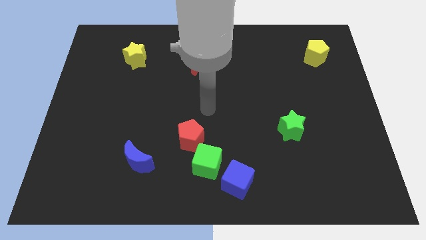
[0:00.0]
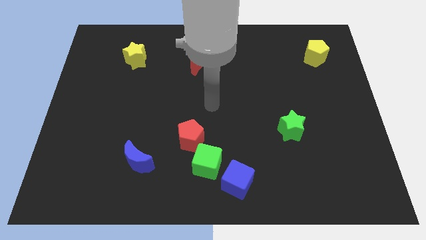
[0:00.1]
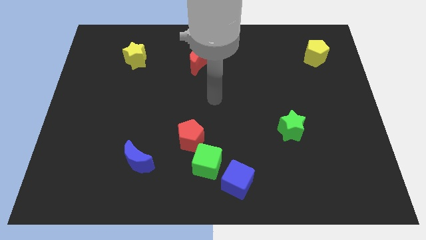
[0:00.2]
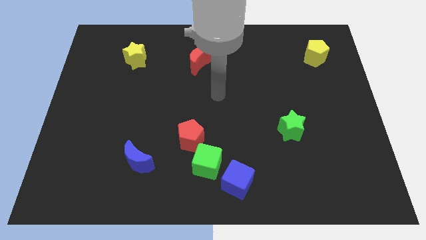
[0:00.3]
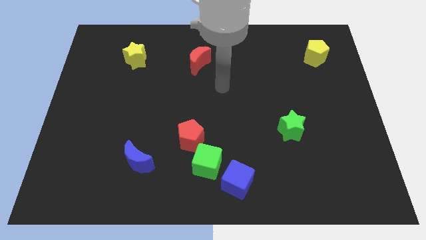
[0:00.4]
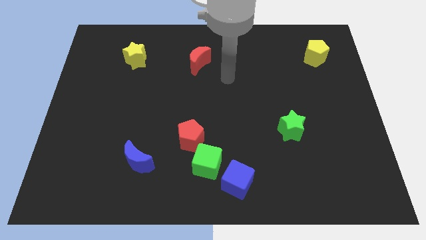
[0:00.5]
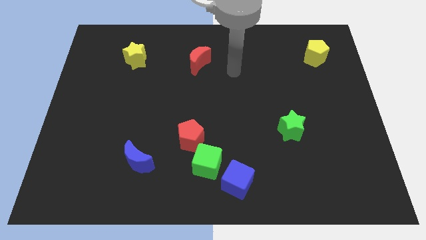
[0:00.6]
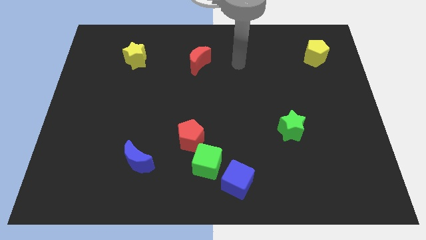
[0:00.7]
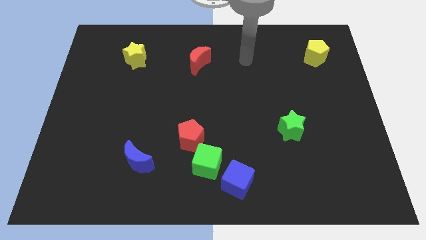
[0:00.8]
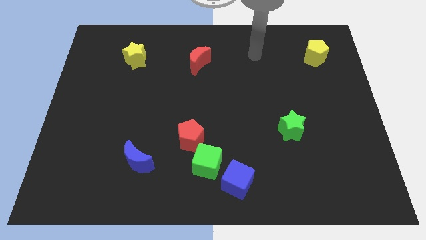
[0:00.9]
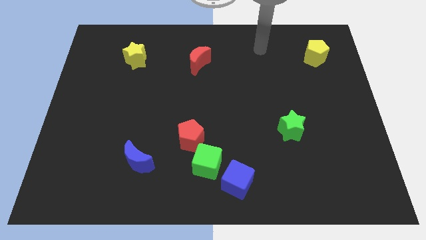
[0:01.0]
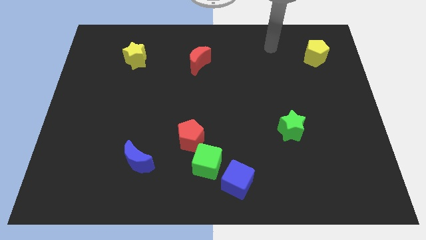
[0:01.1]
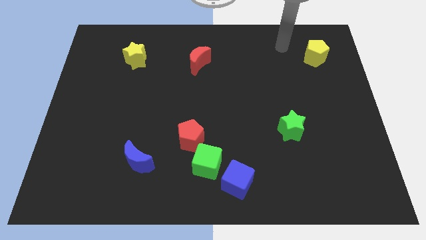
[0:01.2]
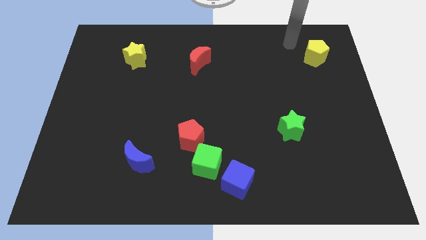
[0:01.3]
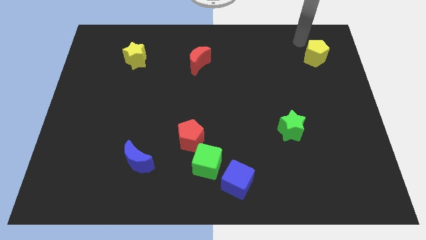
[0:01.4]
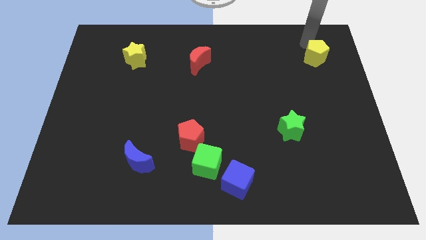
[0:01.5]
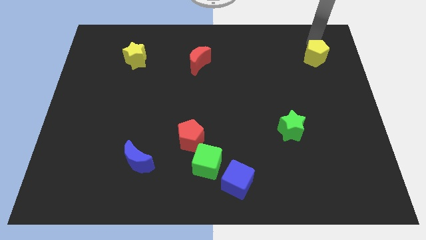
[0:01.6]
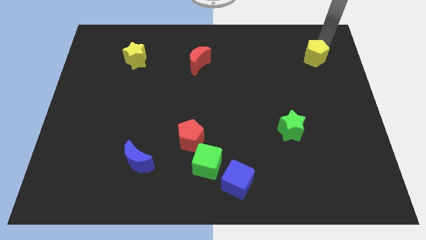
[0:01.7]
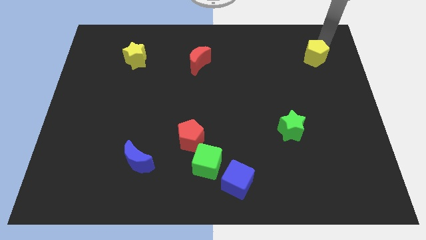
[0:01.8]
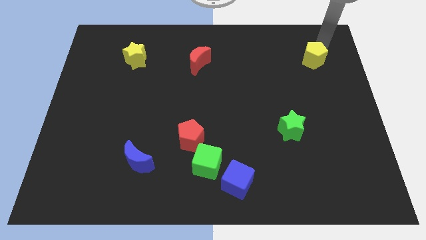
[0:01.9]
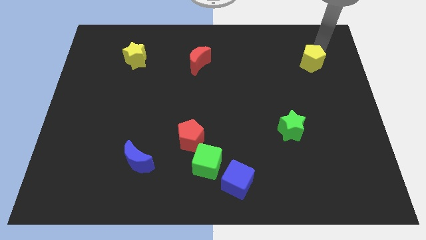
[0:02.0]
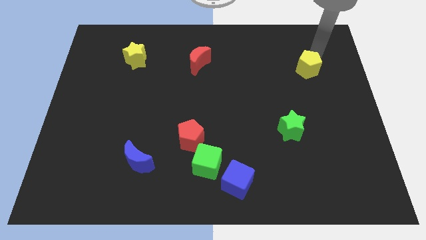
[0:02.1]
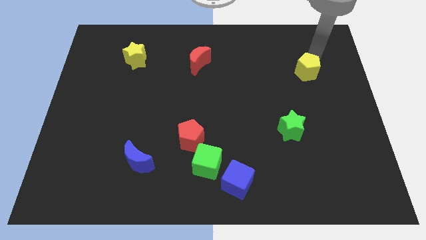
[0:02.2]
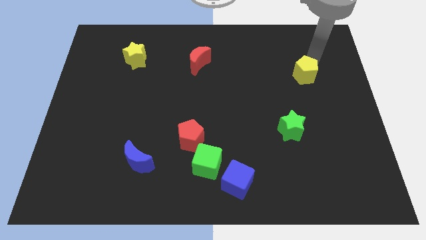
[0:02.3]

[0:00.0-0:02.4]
move the yellow pentagon a little down and then to the left

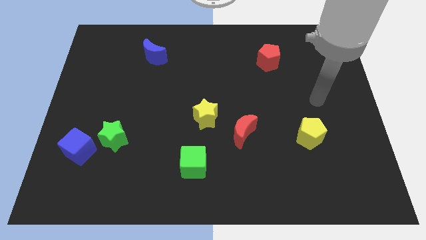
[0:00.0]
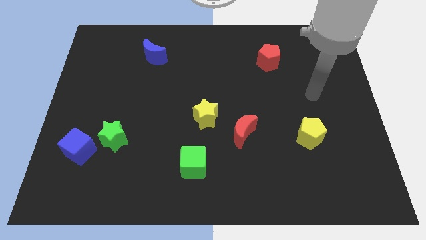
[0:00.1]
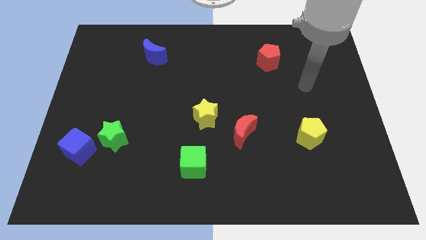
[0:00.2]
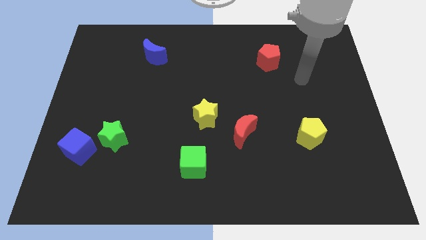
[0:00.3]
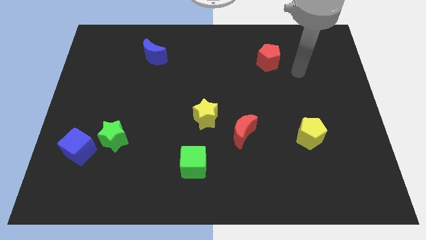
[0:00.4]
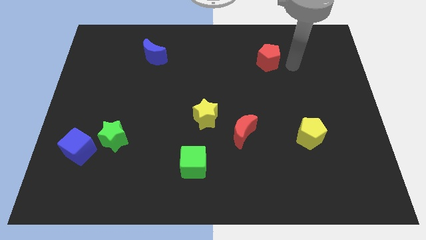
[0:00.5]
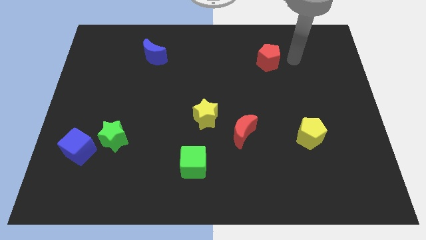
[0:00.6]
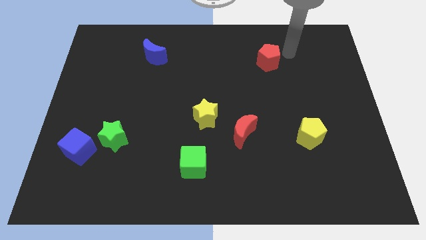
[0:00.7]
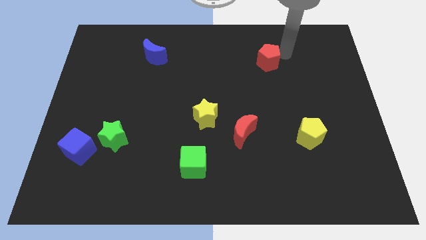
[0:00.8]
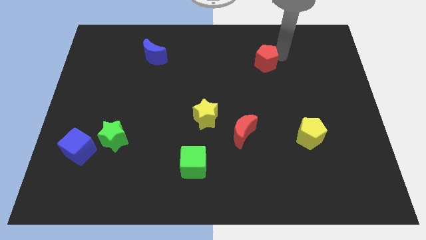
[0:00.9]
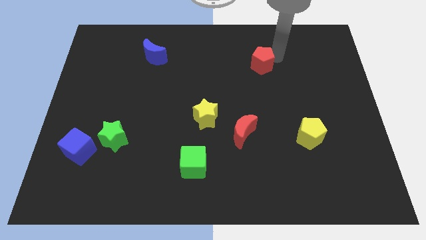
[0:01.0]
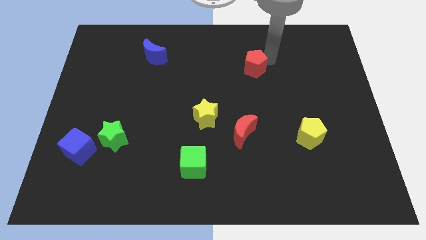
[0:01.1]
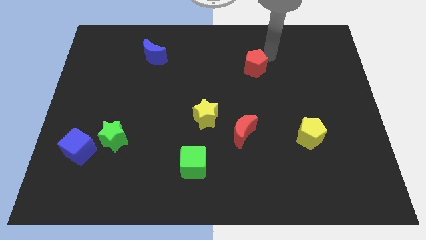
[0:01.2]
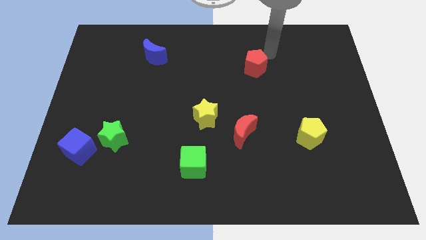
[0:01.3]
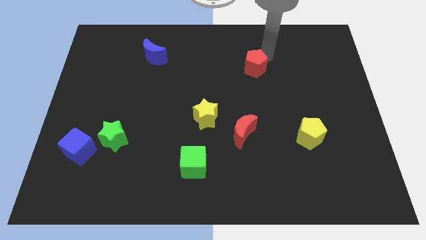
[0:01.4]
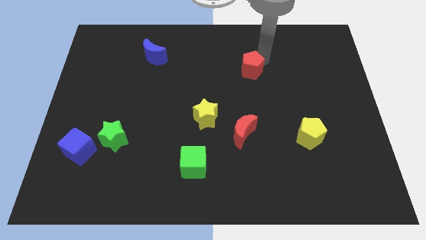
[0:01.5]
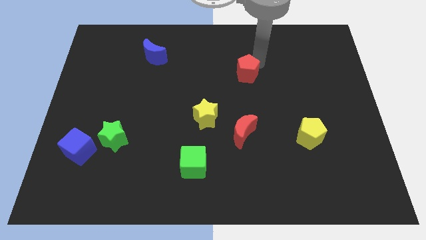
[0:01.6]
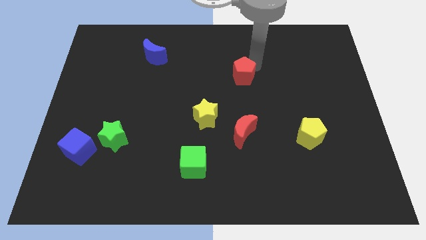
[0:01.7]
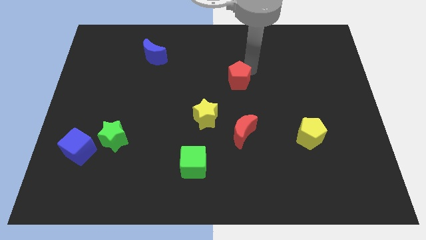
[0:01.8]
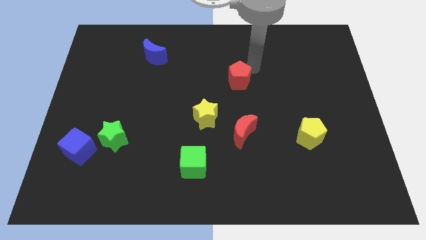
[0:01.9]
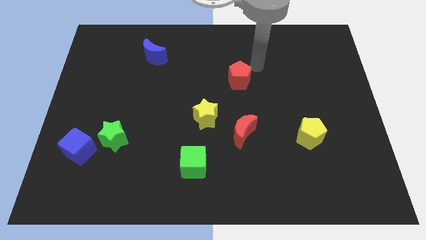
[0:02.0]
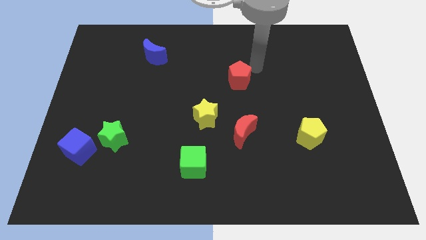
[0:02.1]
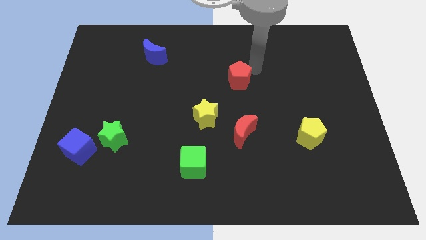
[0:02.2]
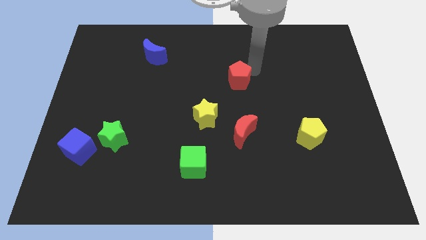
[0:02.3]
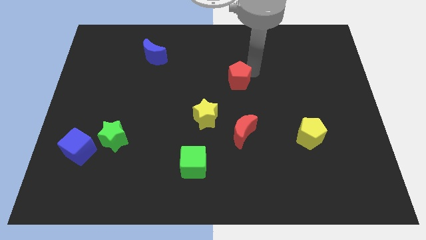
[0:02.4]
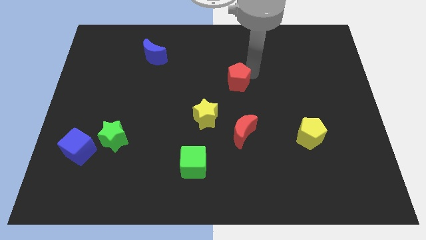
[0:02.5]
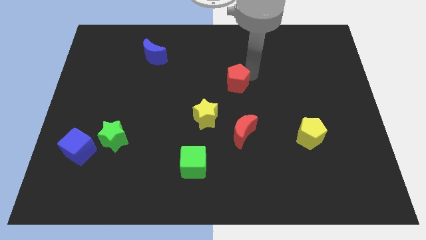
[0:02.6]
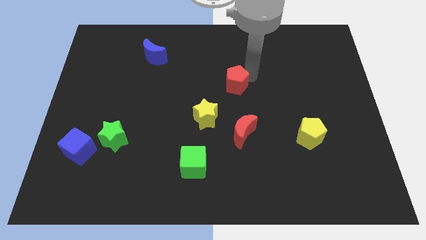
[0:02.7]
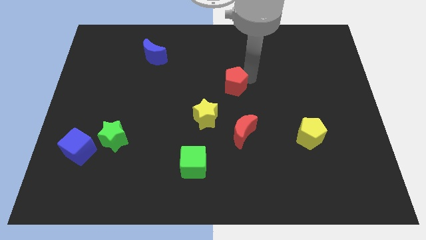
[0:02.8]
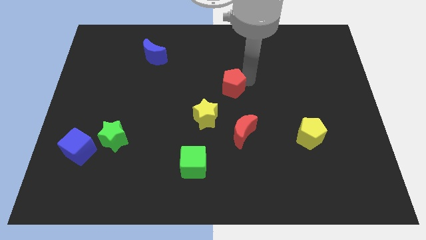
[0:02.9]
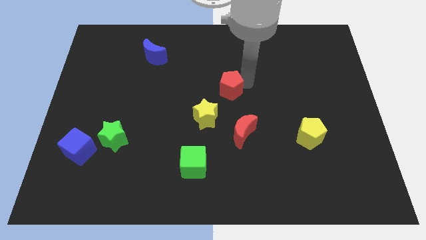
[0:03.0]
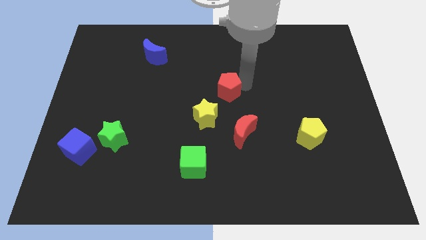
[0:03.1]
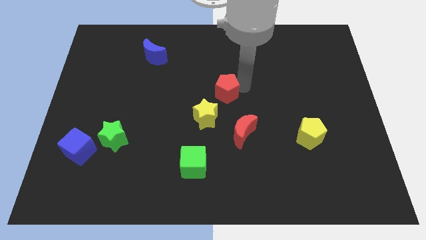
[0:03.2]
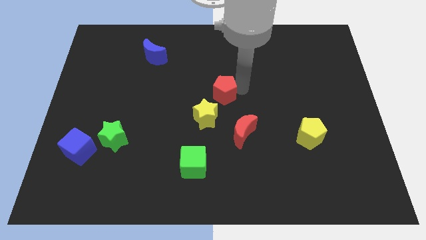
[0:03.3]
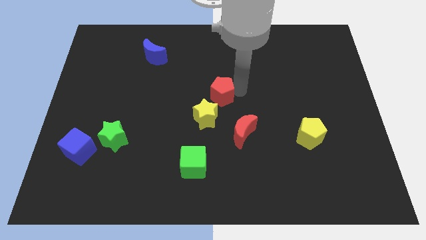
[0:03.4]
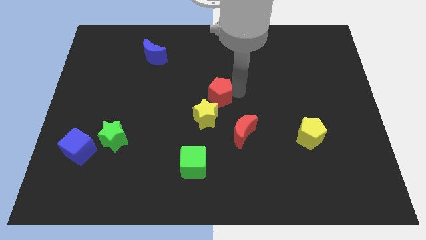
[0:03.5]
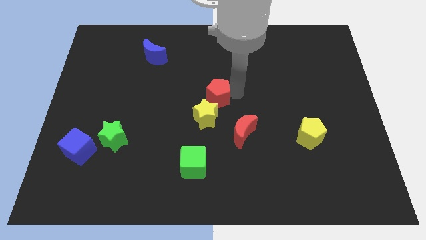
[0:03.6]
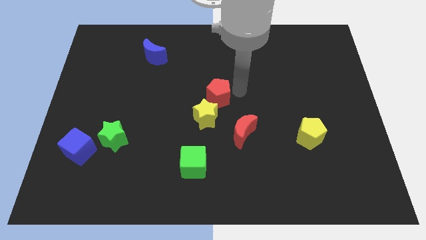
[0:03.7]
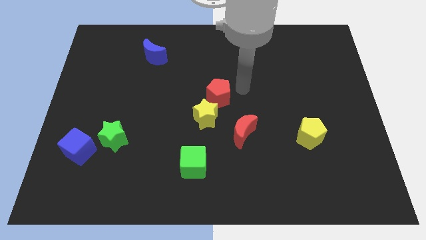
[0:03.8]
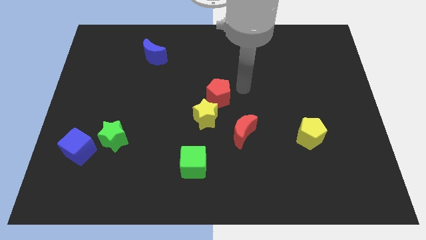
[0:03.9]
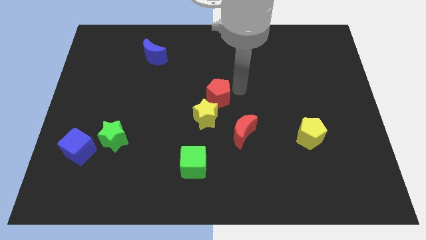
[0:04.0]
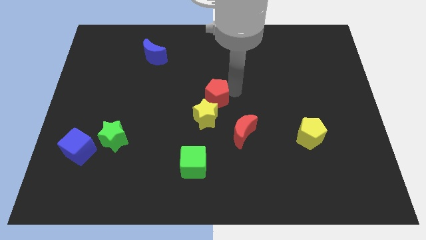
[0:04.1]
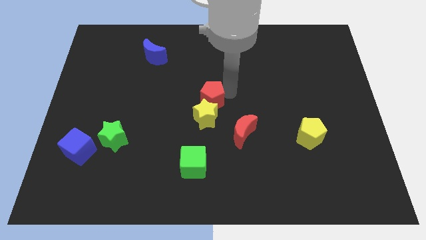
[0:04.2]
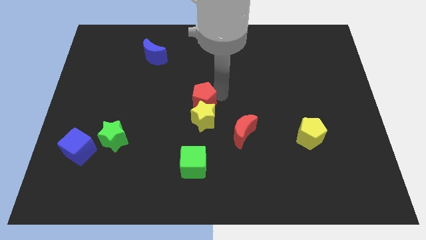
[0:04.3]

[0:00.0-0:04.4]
push the red pentagon down and to the left diagonally

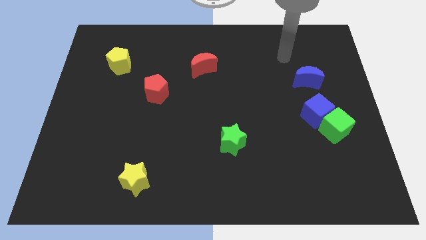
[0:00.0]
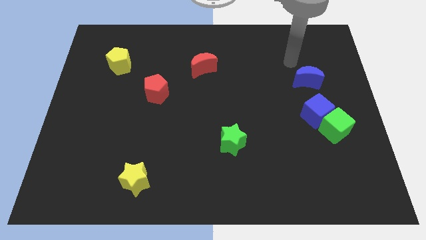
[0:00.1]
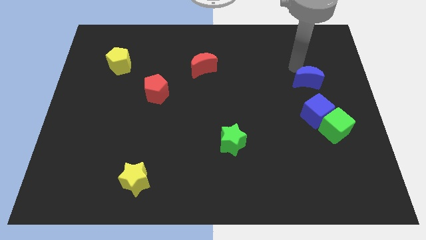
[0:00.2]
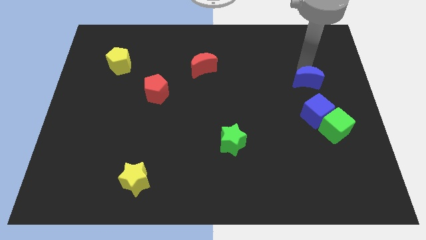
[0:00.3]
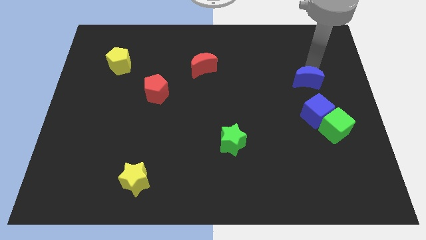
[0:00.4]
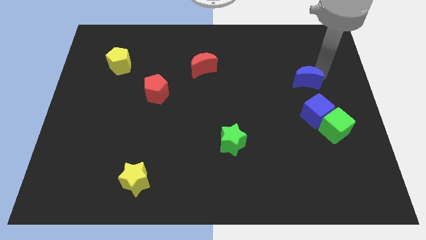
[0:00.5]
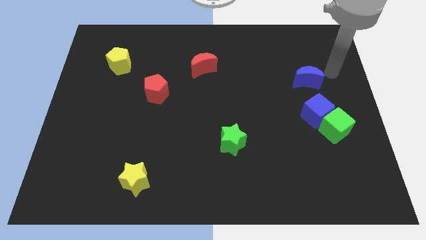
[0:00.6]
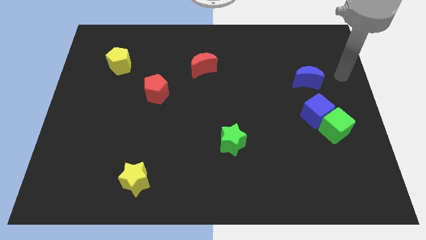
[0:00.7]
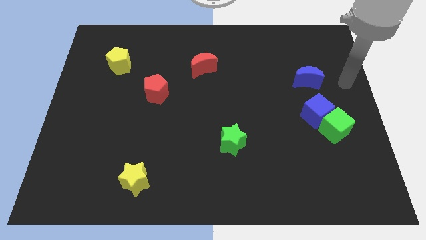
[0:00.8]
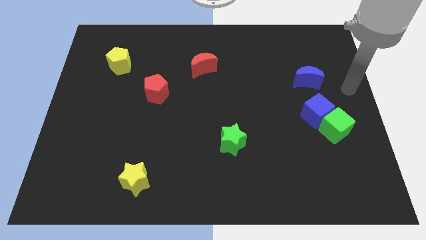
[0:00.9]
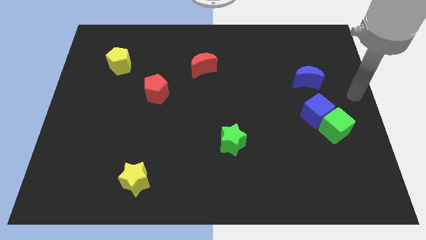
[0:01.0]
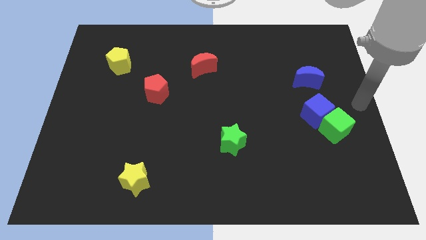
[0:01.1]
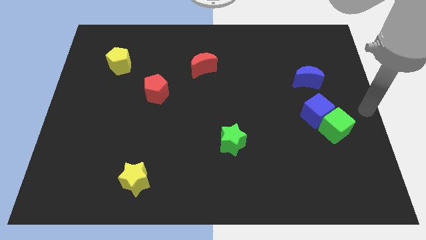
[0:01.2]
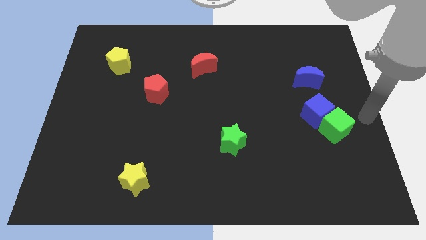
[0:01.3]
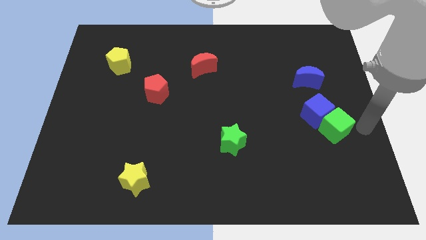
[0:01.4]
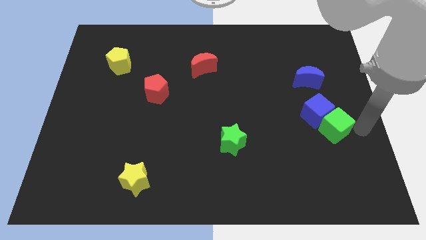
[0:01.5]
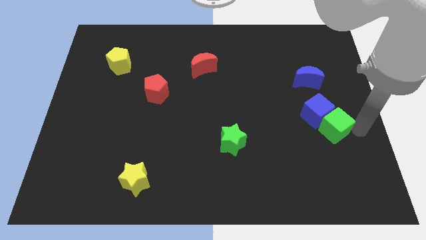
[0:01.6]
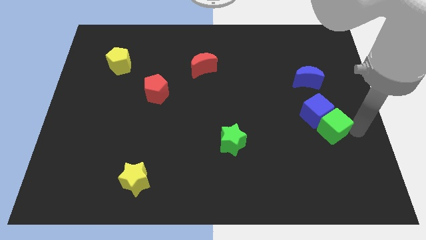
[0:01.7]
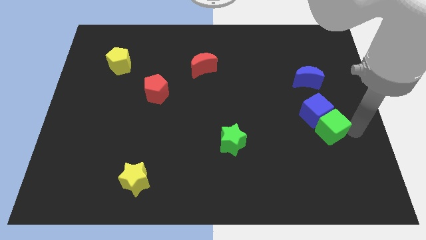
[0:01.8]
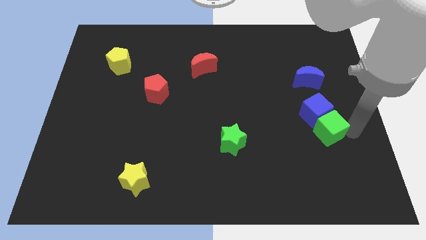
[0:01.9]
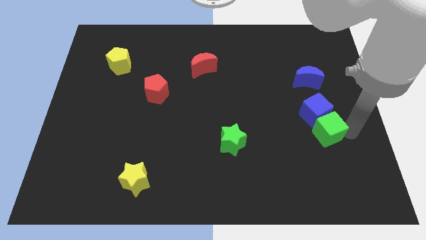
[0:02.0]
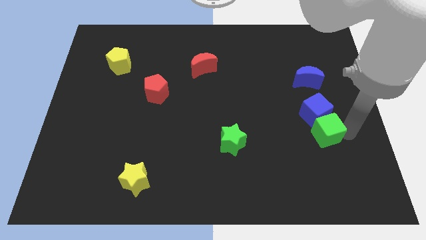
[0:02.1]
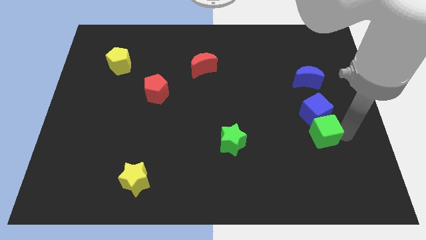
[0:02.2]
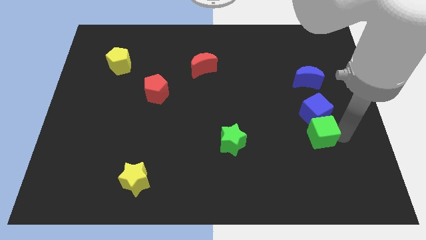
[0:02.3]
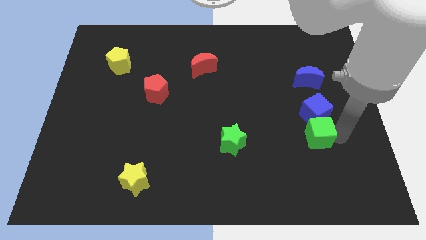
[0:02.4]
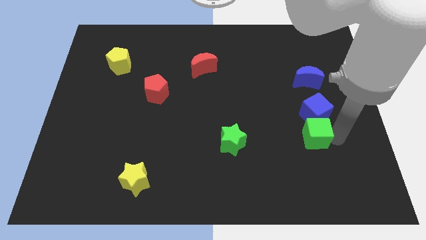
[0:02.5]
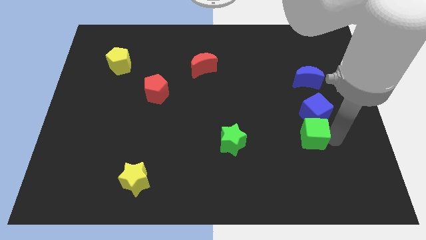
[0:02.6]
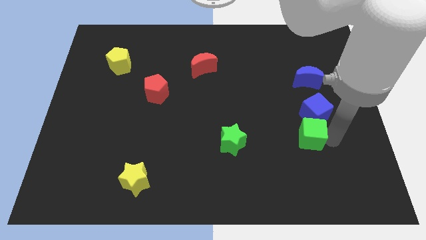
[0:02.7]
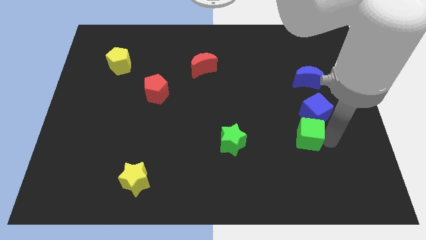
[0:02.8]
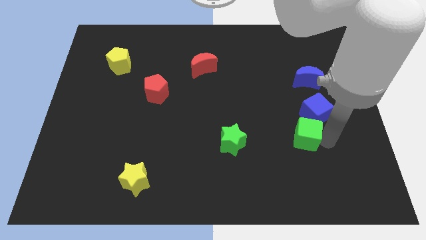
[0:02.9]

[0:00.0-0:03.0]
slightly push the green cube to the left
